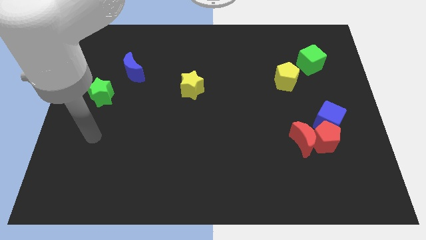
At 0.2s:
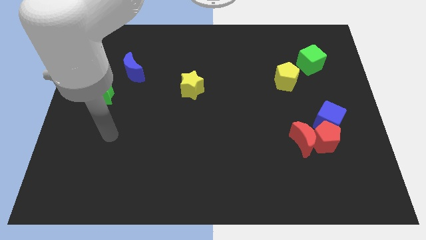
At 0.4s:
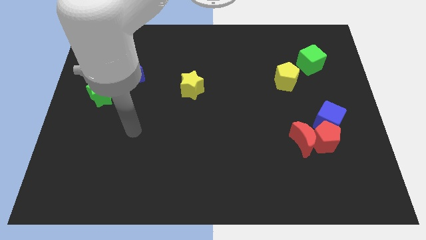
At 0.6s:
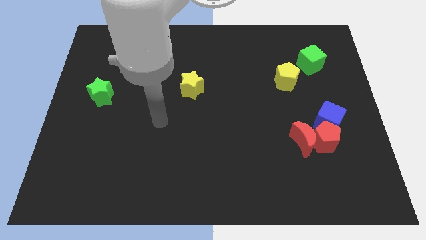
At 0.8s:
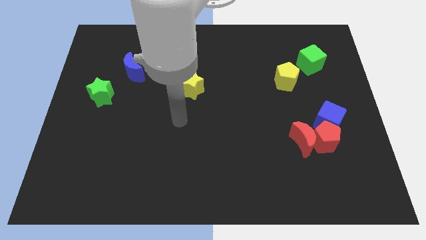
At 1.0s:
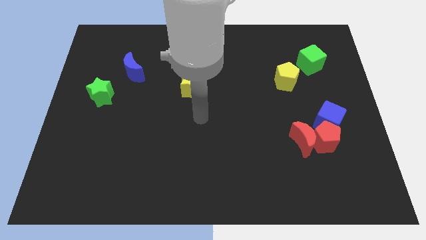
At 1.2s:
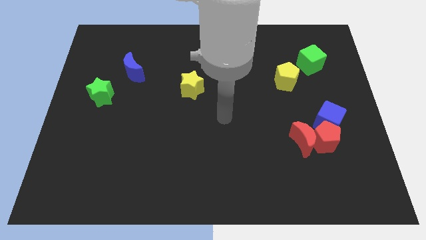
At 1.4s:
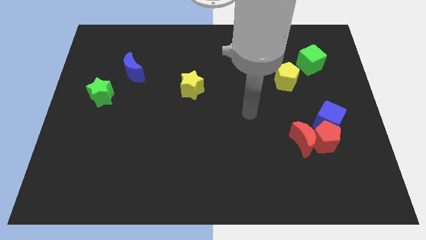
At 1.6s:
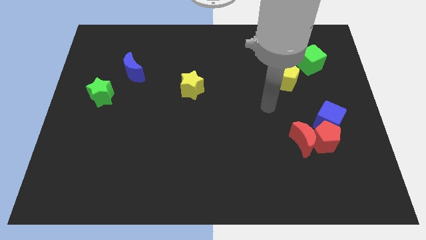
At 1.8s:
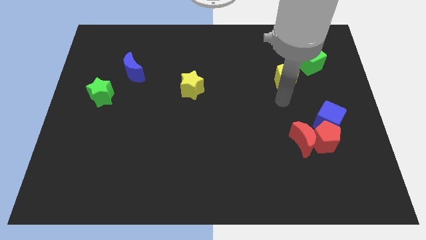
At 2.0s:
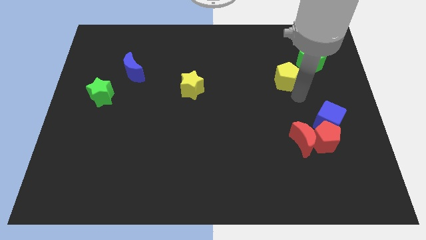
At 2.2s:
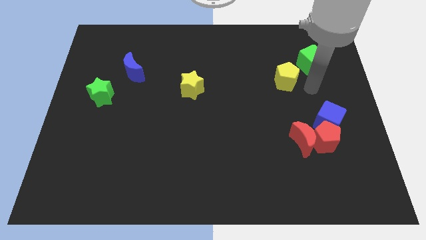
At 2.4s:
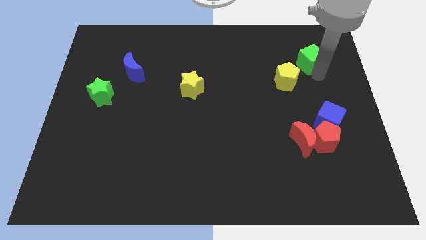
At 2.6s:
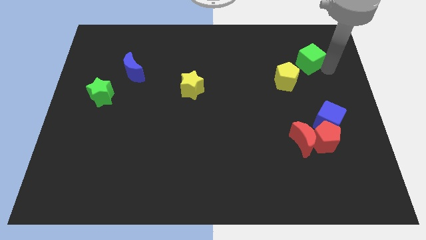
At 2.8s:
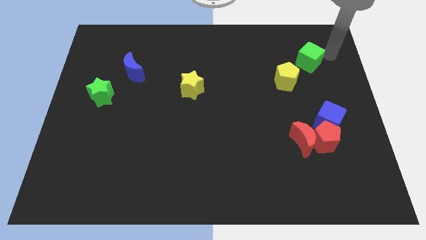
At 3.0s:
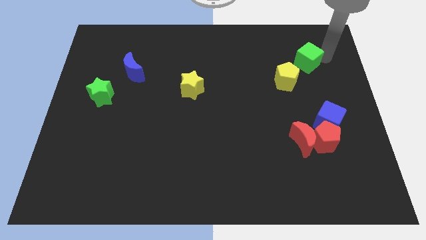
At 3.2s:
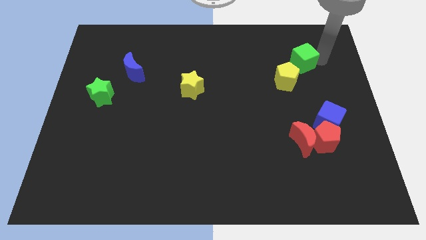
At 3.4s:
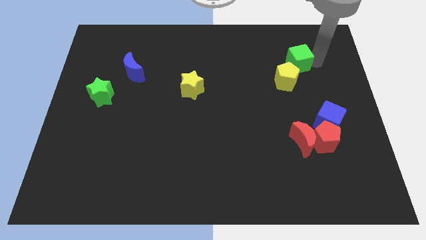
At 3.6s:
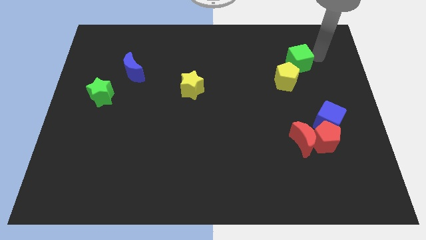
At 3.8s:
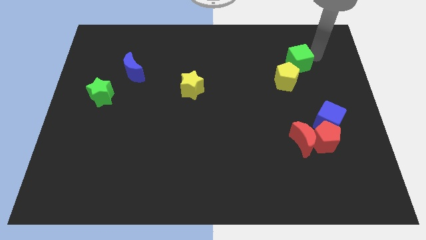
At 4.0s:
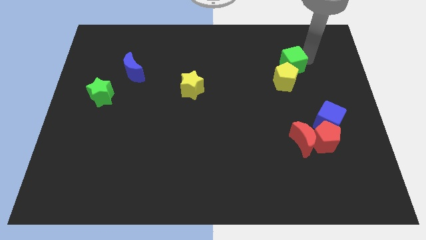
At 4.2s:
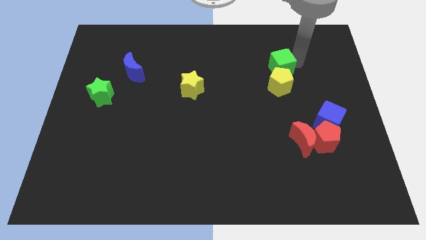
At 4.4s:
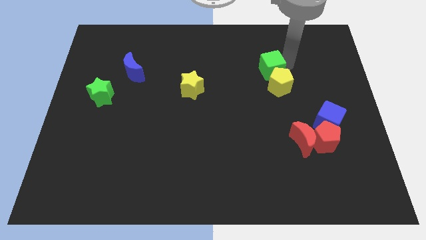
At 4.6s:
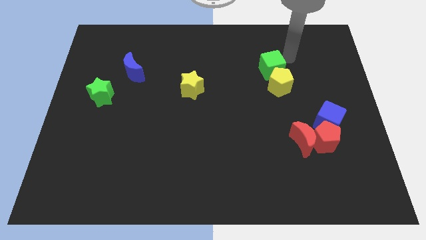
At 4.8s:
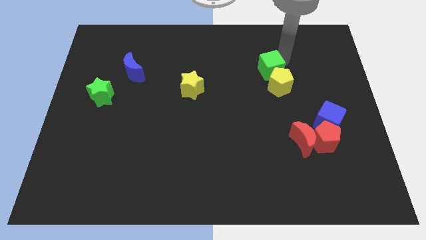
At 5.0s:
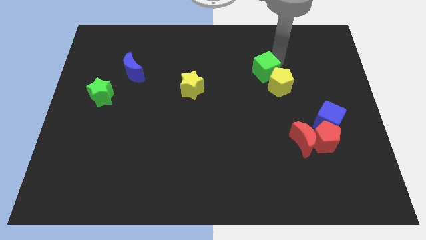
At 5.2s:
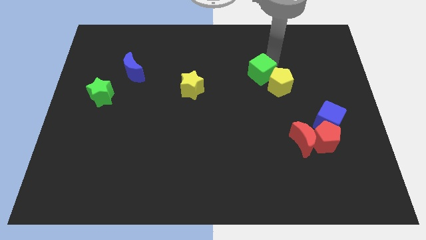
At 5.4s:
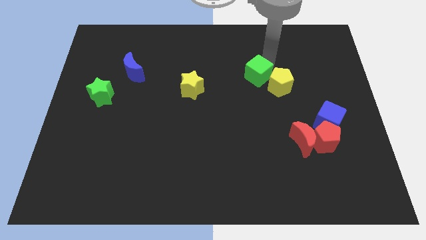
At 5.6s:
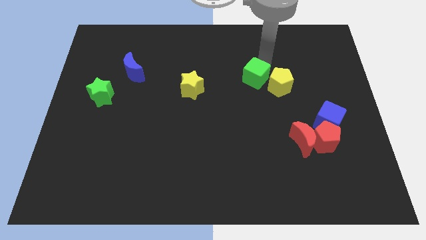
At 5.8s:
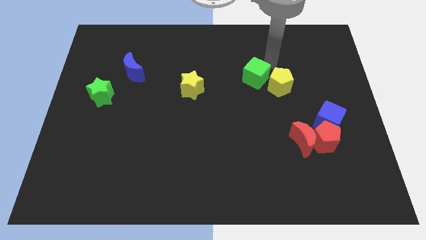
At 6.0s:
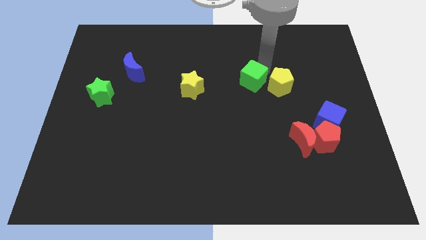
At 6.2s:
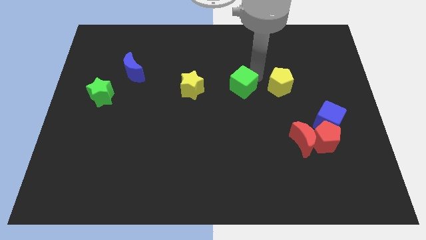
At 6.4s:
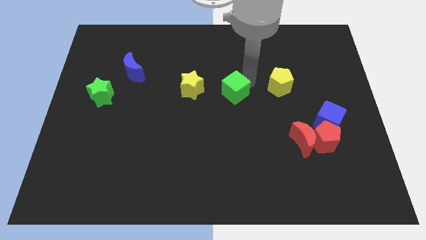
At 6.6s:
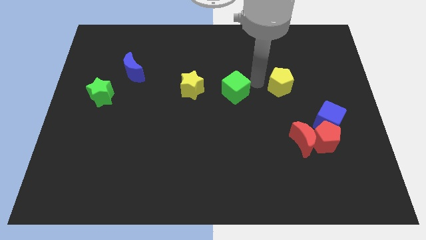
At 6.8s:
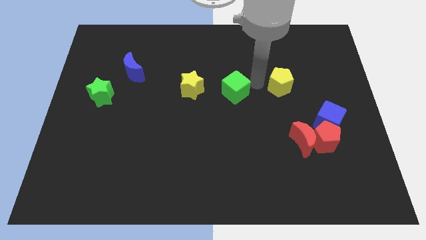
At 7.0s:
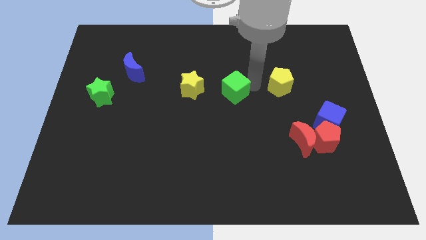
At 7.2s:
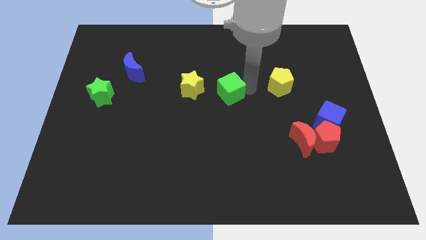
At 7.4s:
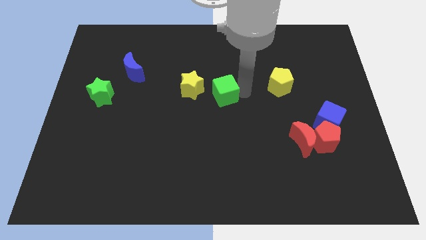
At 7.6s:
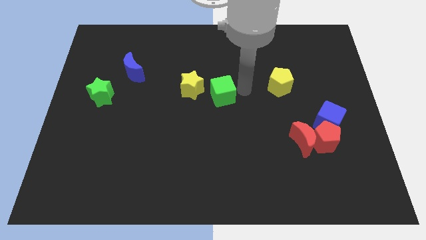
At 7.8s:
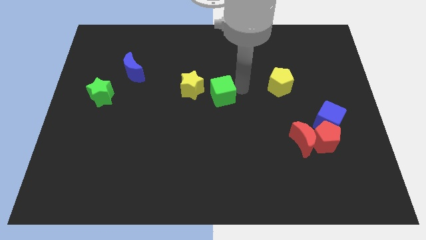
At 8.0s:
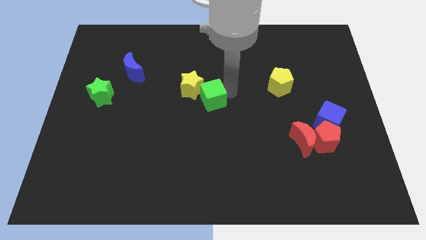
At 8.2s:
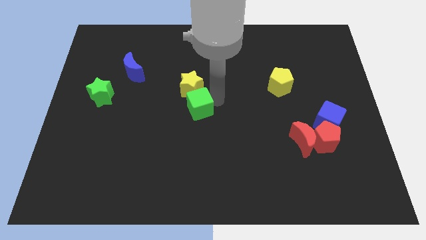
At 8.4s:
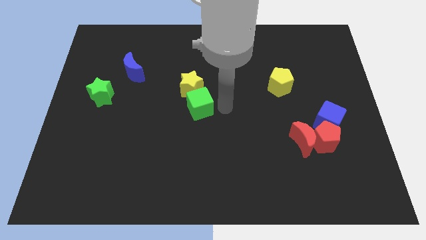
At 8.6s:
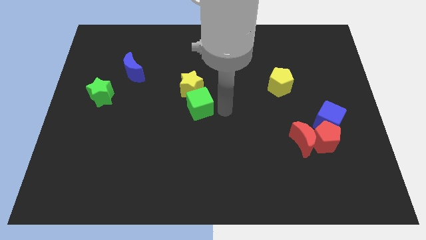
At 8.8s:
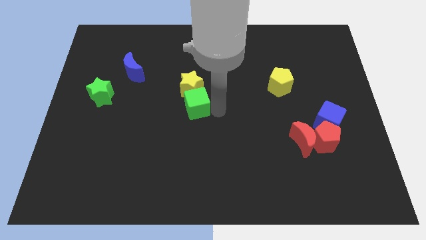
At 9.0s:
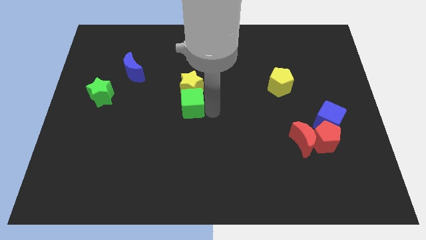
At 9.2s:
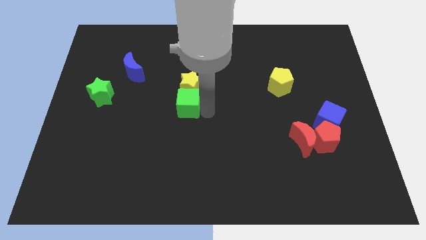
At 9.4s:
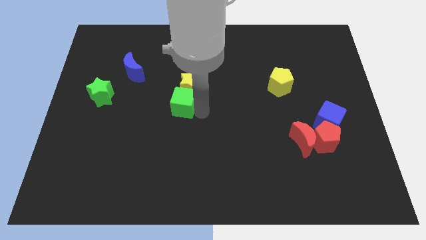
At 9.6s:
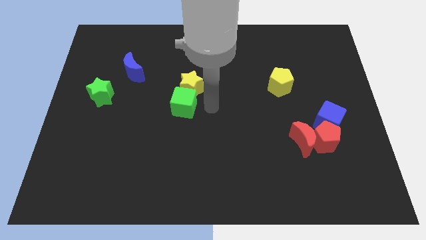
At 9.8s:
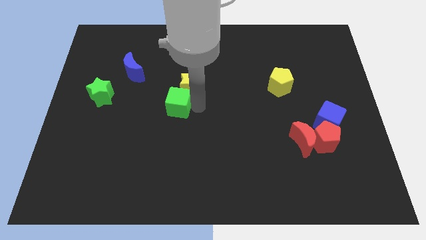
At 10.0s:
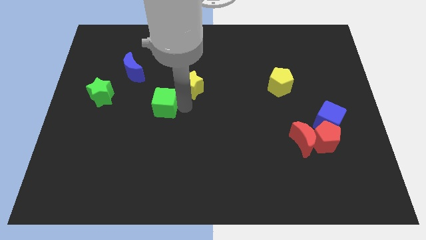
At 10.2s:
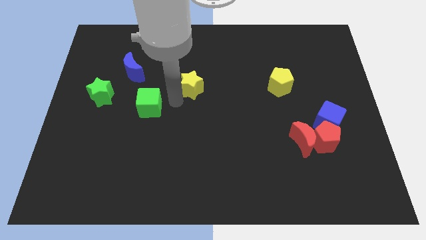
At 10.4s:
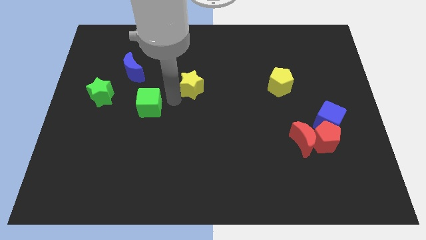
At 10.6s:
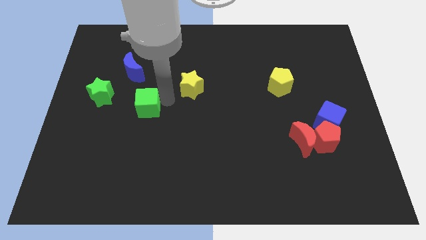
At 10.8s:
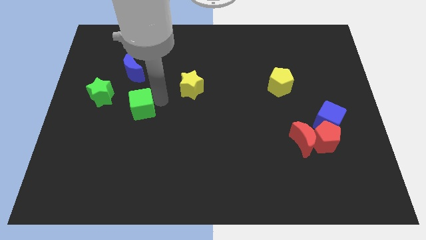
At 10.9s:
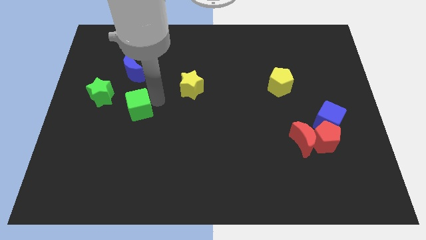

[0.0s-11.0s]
push the green cube to the bottom right side of the green star

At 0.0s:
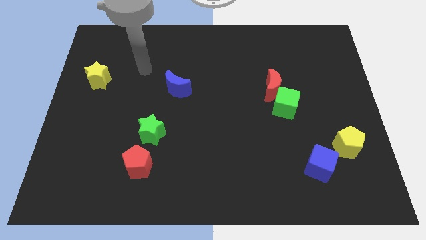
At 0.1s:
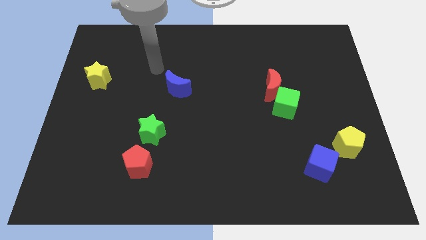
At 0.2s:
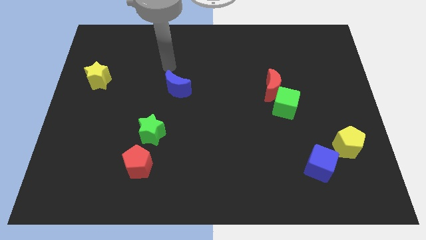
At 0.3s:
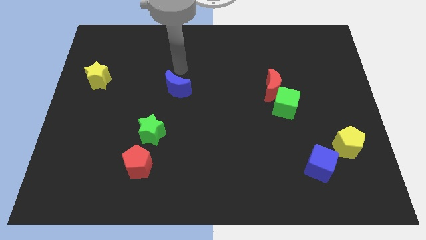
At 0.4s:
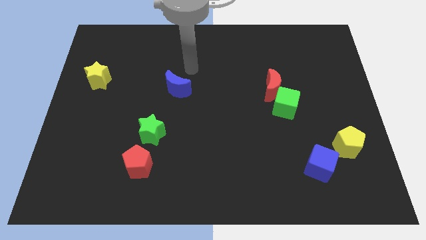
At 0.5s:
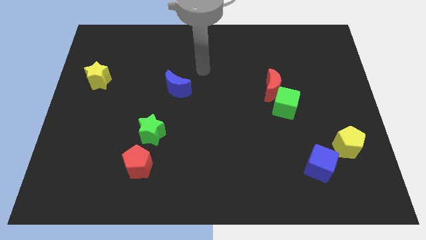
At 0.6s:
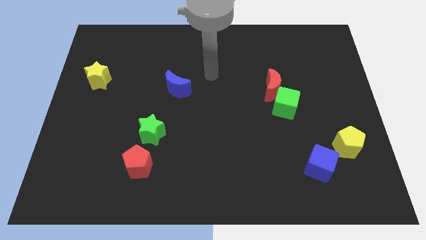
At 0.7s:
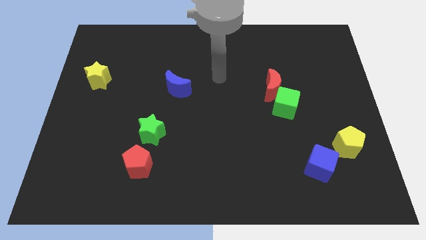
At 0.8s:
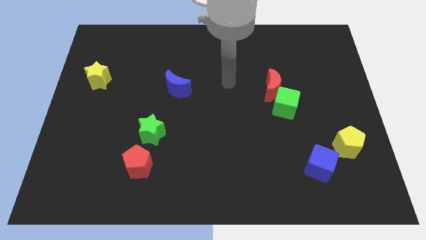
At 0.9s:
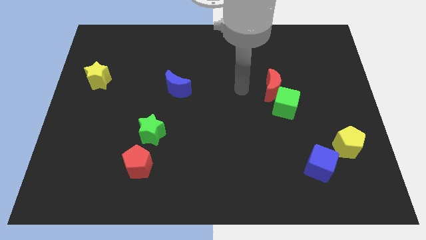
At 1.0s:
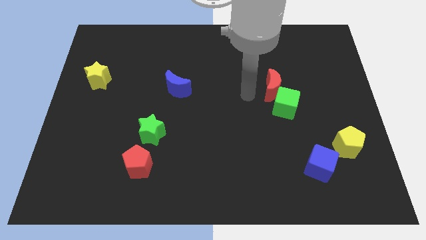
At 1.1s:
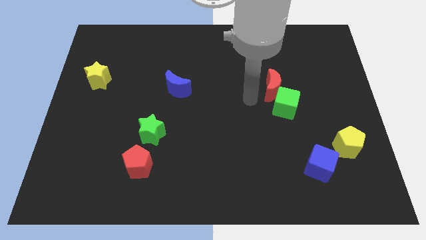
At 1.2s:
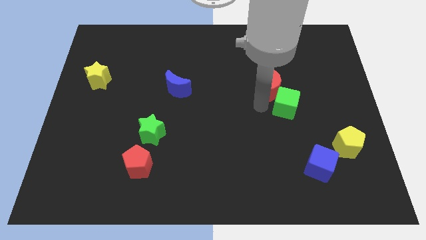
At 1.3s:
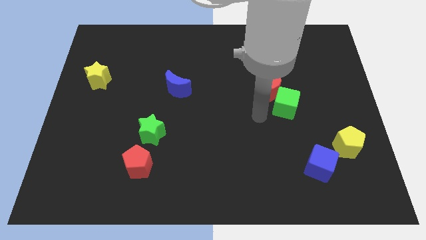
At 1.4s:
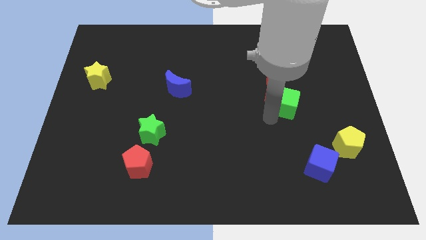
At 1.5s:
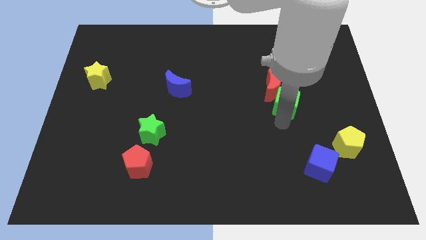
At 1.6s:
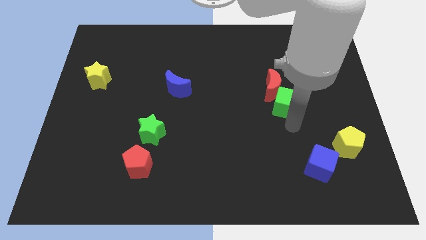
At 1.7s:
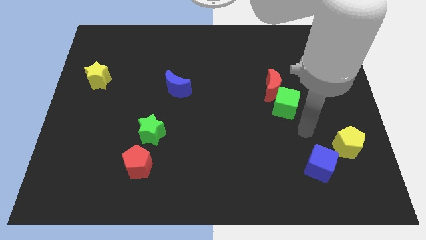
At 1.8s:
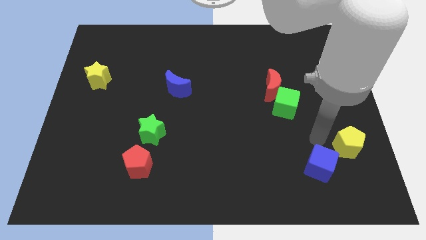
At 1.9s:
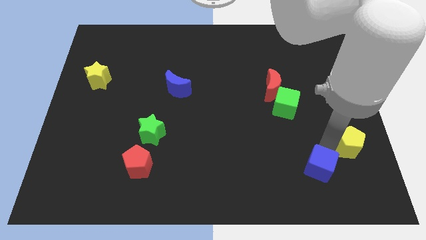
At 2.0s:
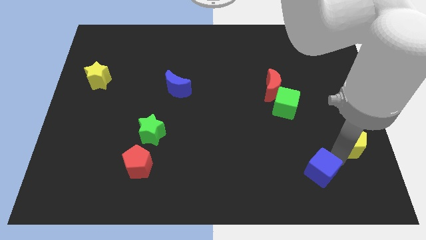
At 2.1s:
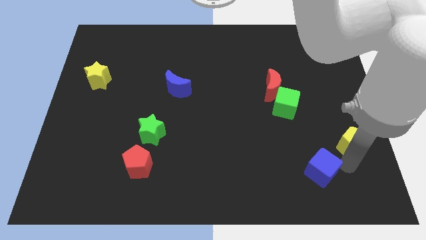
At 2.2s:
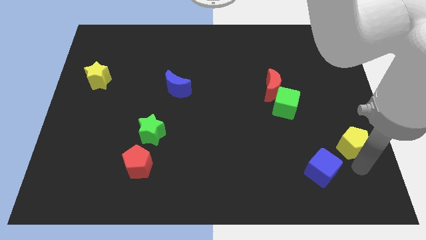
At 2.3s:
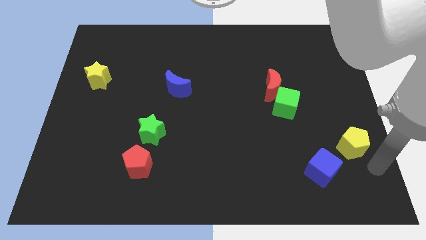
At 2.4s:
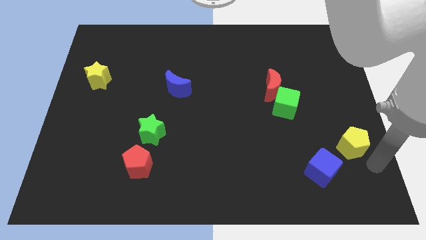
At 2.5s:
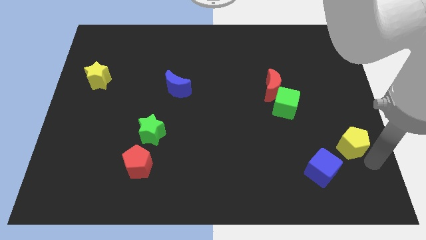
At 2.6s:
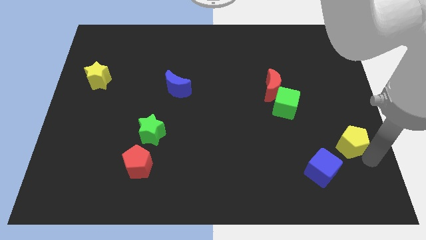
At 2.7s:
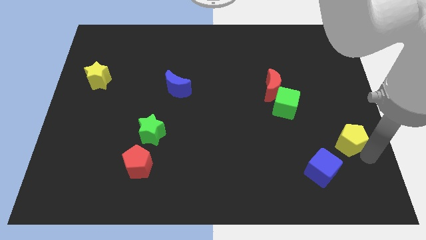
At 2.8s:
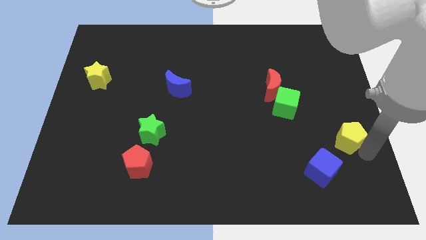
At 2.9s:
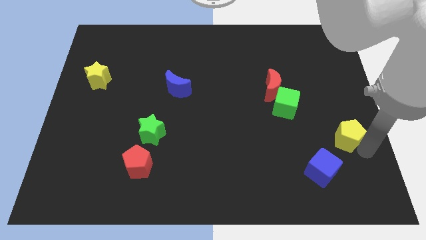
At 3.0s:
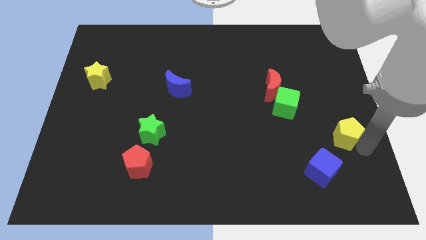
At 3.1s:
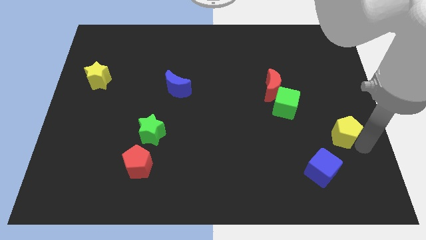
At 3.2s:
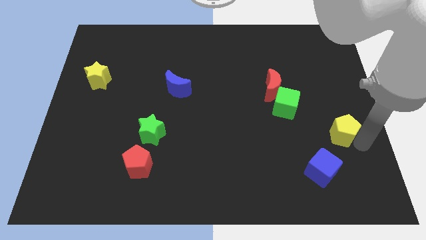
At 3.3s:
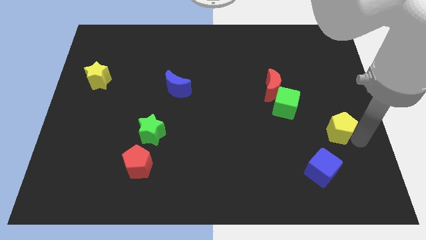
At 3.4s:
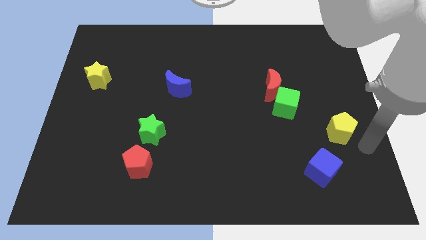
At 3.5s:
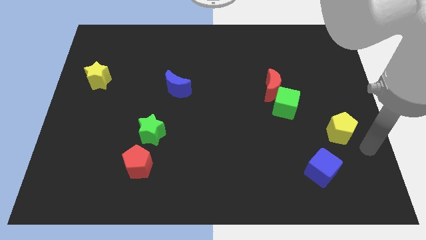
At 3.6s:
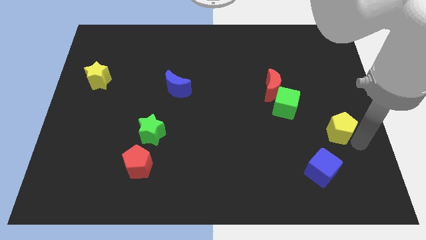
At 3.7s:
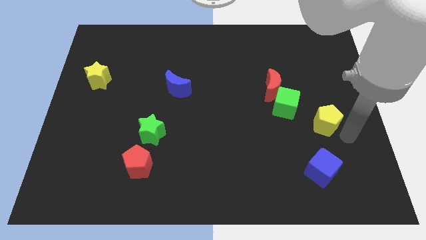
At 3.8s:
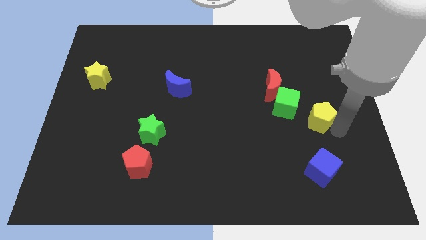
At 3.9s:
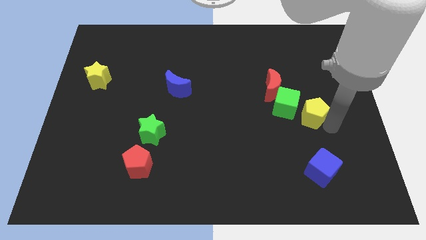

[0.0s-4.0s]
push the yellow pentagon to the bottom right of the red moon
